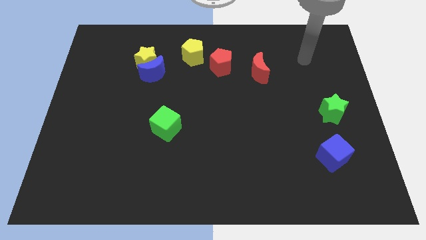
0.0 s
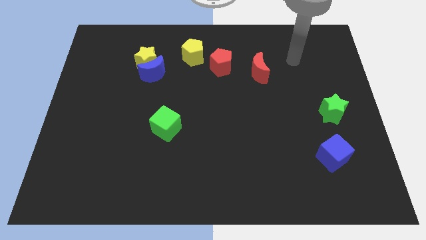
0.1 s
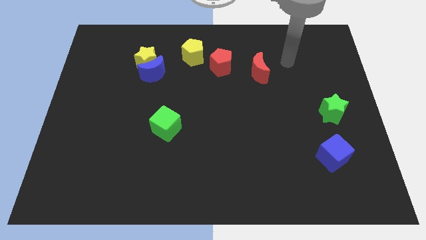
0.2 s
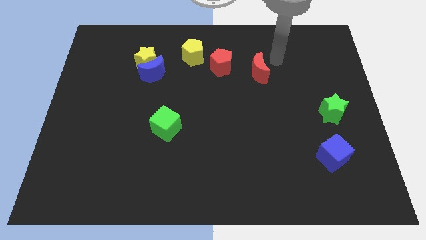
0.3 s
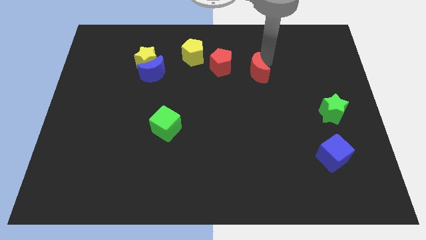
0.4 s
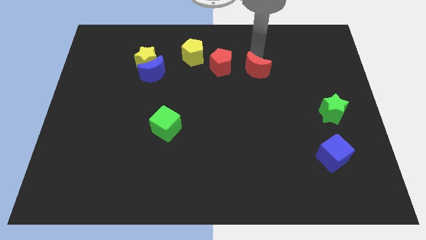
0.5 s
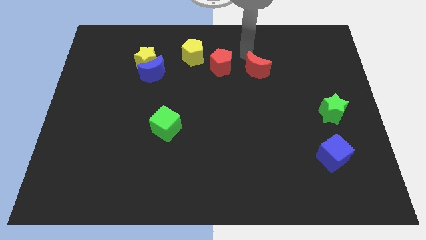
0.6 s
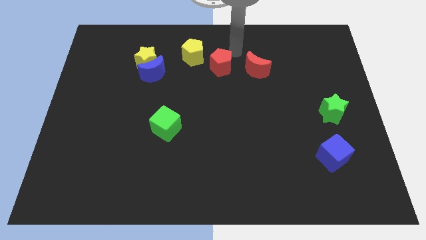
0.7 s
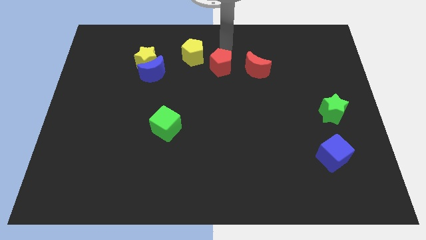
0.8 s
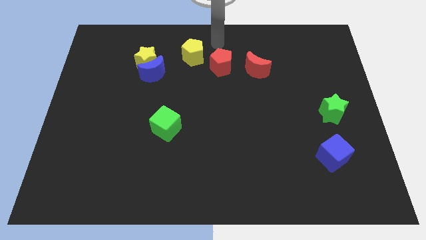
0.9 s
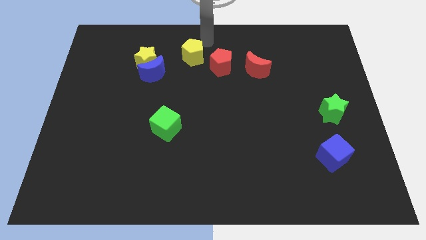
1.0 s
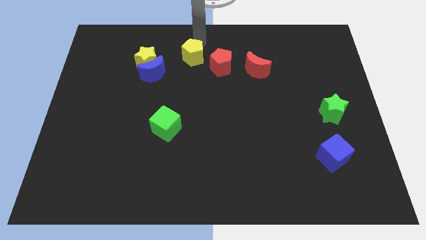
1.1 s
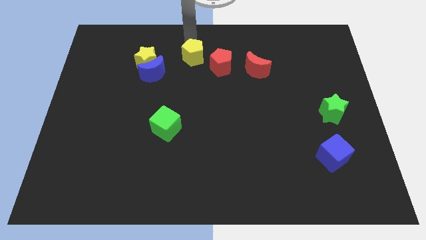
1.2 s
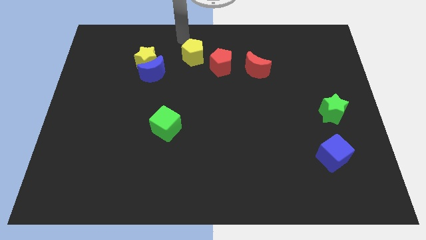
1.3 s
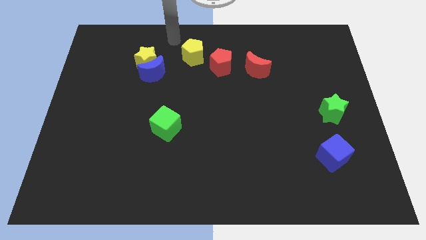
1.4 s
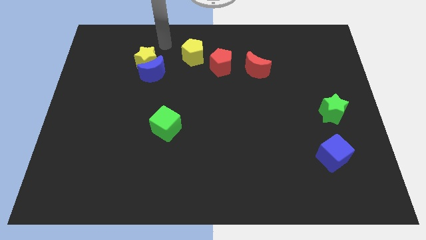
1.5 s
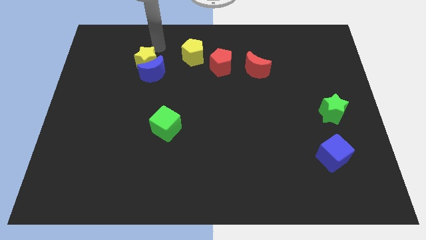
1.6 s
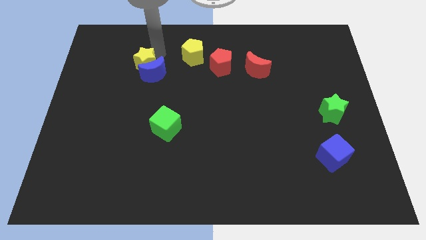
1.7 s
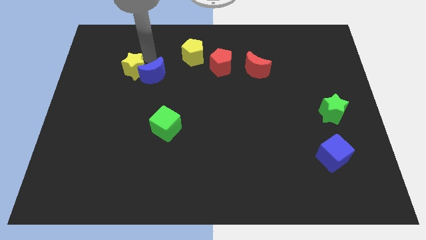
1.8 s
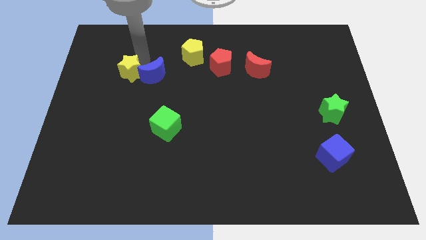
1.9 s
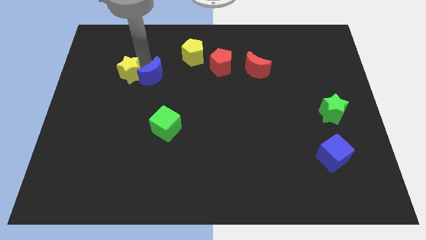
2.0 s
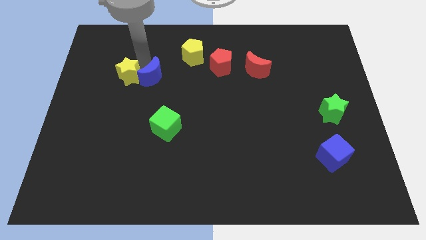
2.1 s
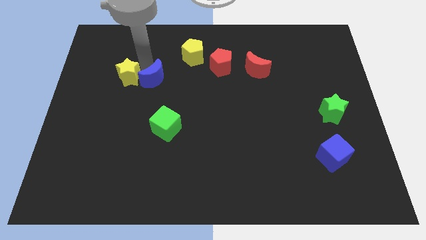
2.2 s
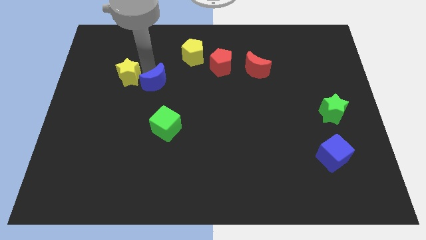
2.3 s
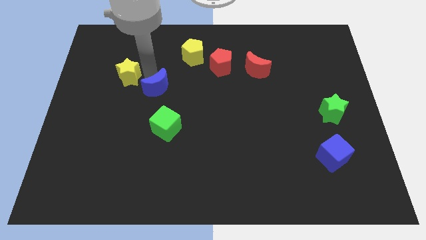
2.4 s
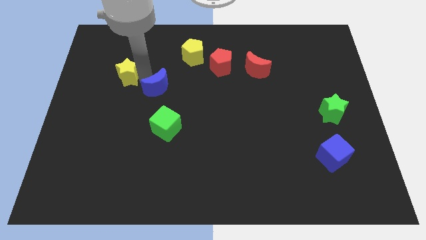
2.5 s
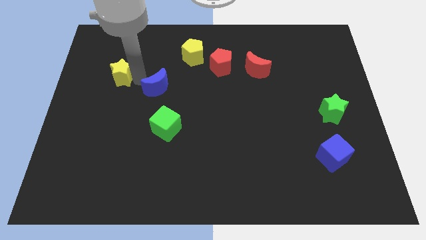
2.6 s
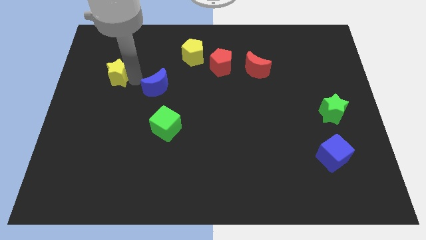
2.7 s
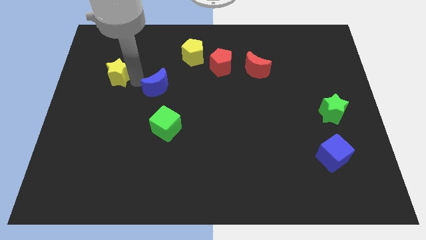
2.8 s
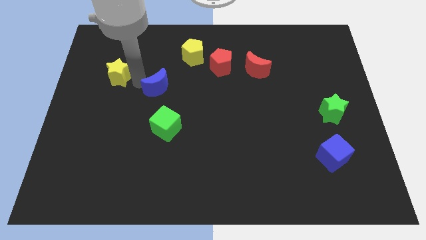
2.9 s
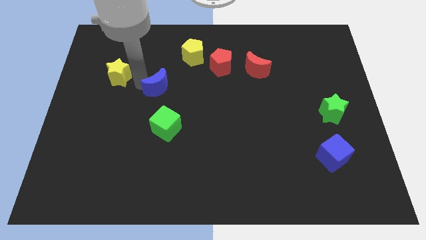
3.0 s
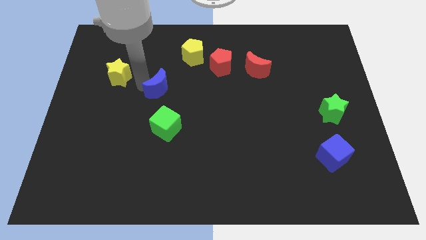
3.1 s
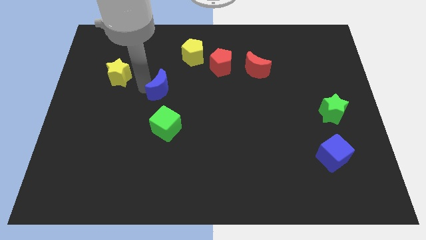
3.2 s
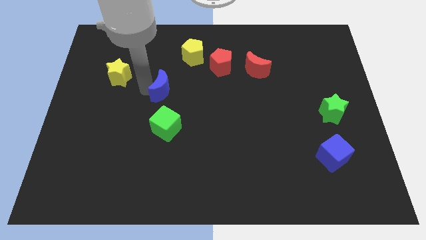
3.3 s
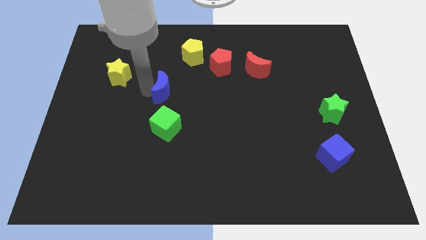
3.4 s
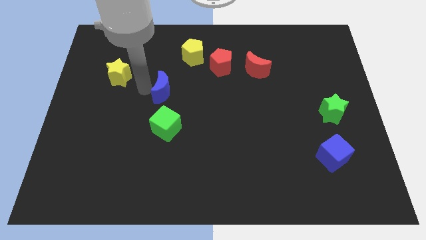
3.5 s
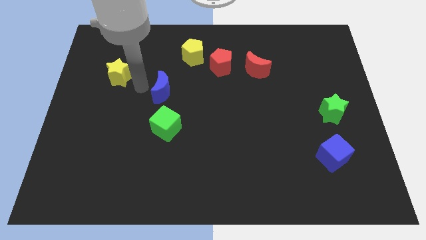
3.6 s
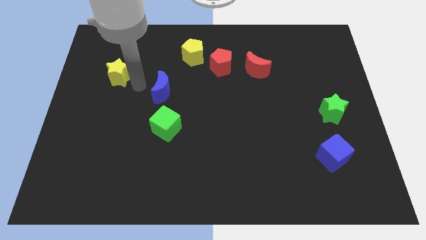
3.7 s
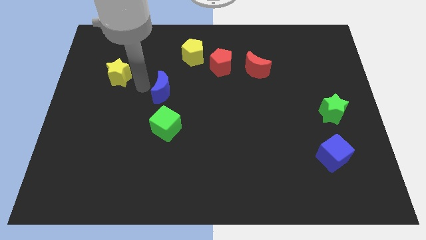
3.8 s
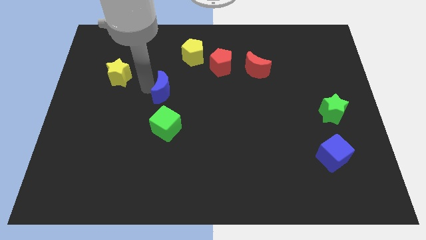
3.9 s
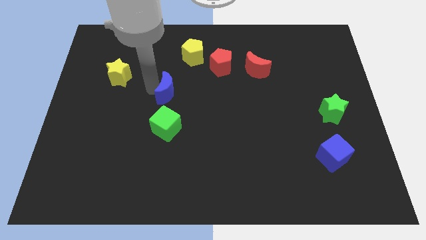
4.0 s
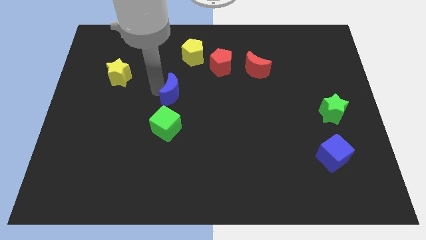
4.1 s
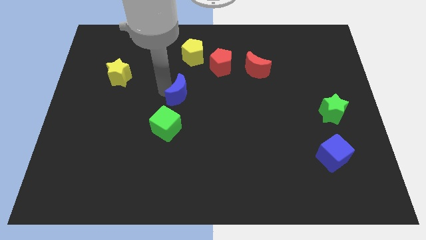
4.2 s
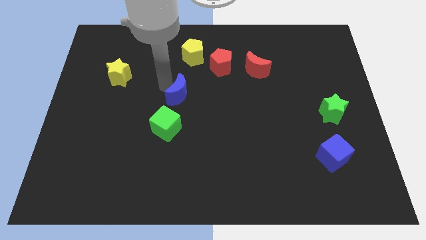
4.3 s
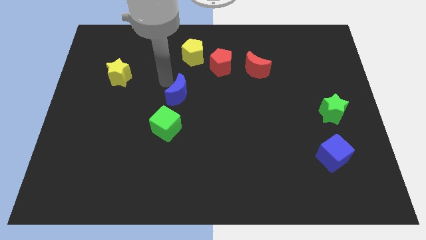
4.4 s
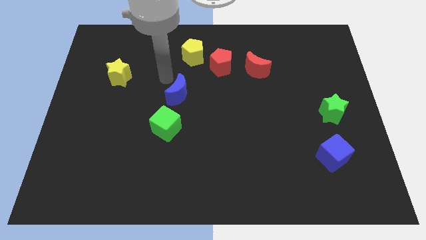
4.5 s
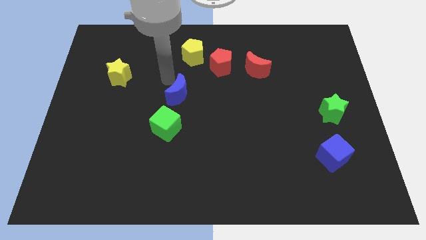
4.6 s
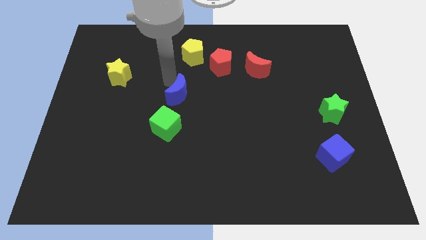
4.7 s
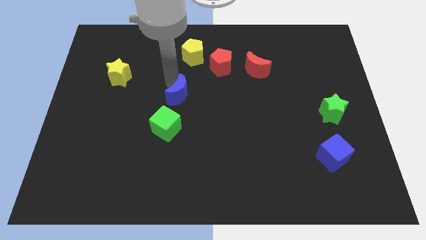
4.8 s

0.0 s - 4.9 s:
slide the blue moon to the top right side of the green cube

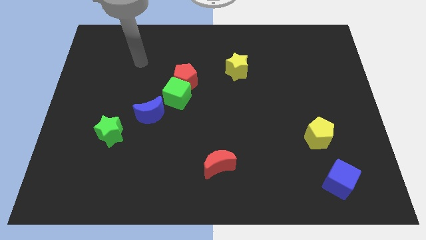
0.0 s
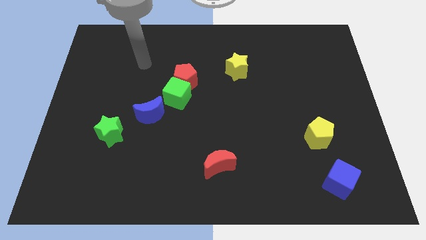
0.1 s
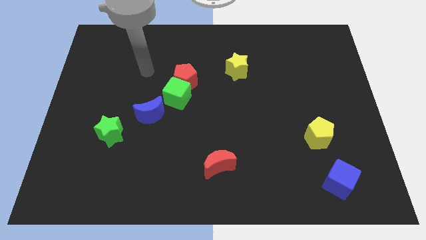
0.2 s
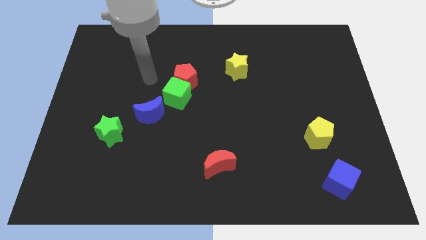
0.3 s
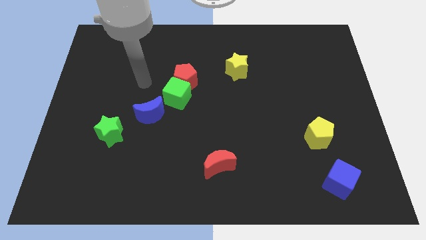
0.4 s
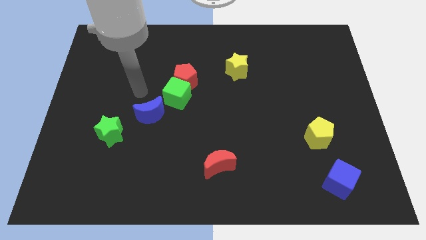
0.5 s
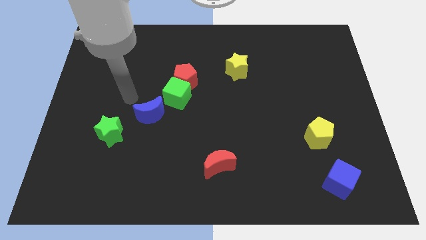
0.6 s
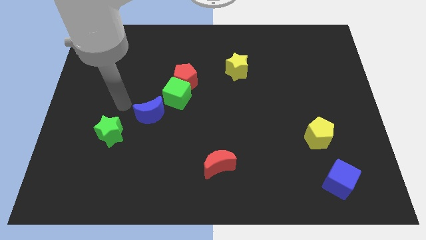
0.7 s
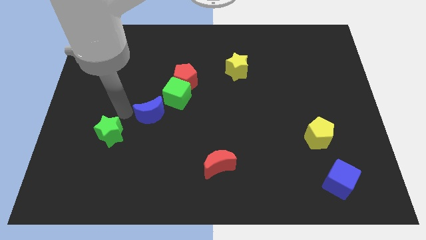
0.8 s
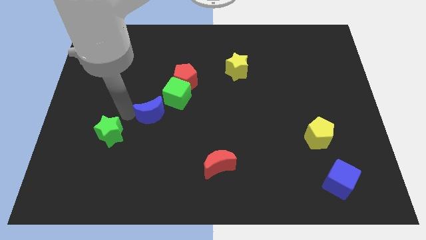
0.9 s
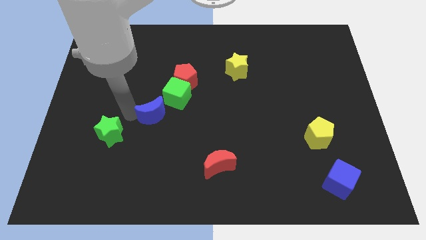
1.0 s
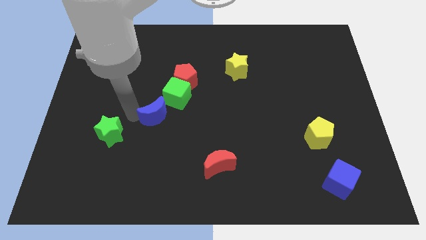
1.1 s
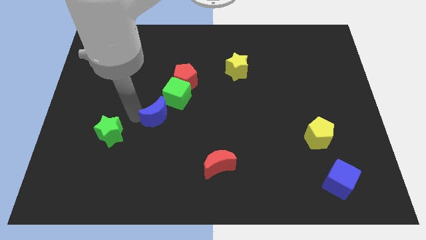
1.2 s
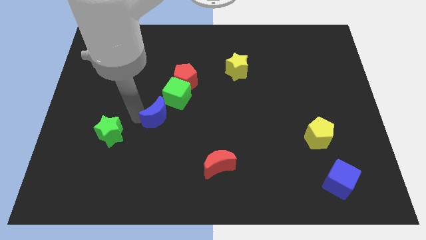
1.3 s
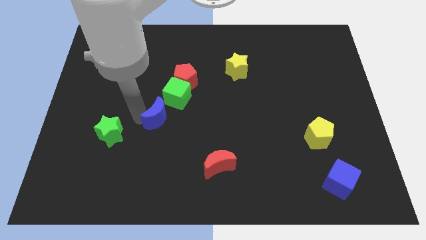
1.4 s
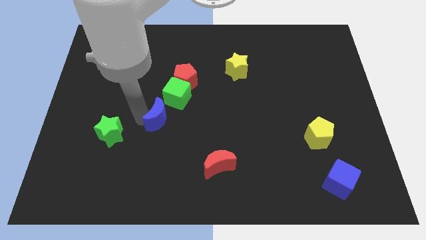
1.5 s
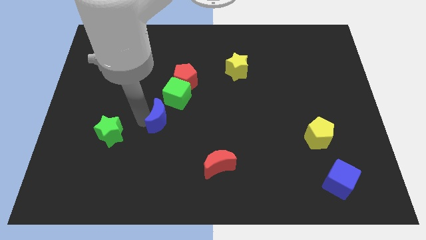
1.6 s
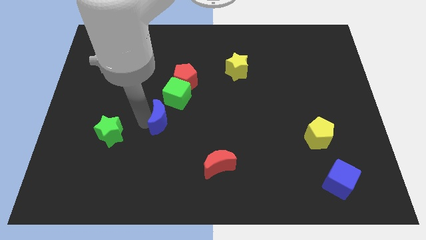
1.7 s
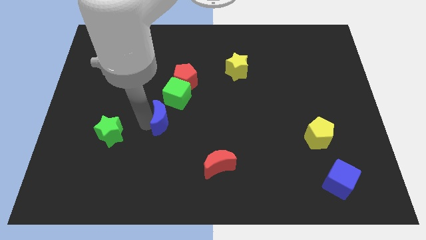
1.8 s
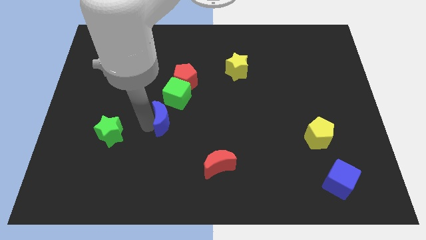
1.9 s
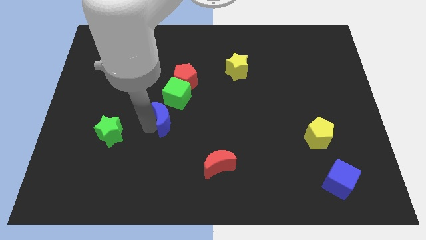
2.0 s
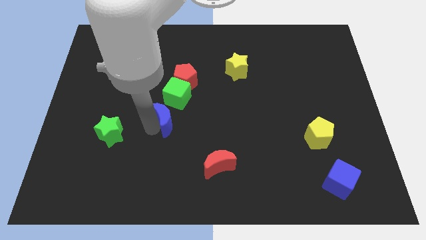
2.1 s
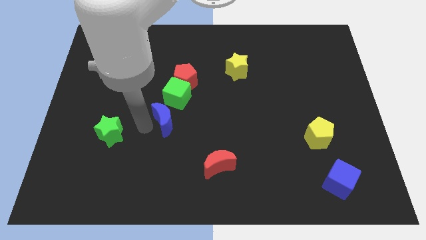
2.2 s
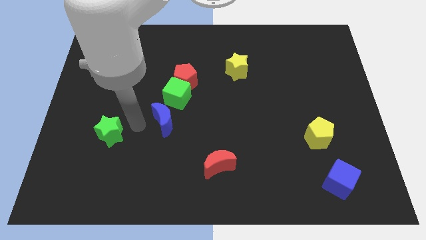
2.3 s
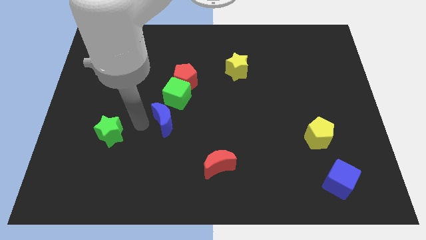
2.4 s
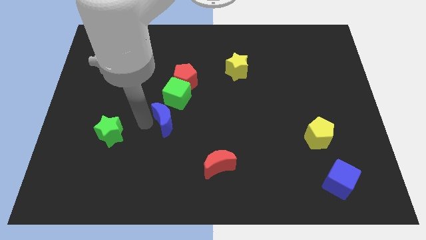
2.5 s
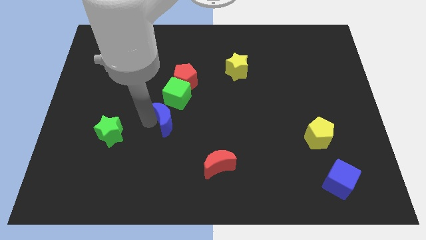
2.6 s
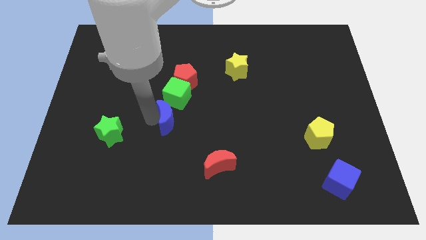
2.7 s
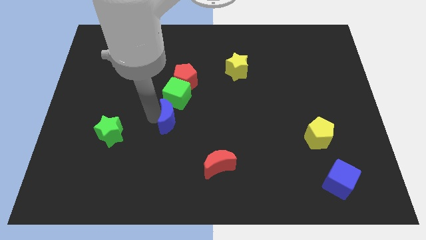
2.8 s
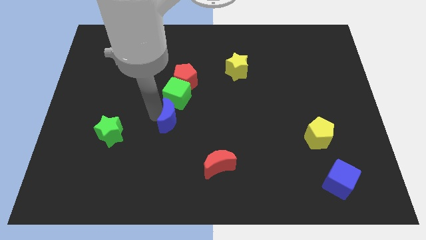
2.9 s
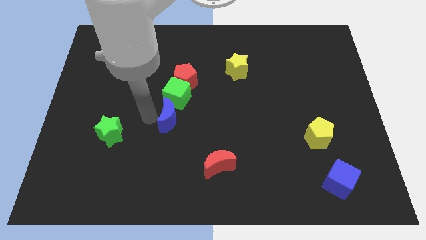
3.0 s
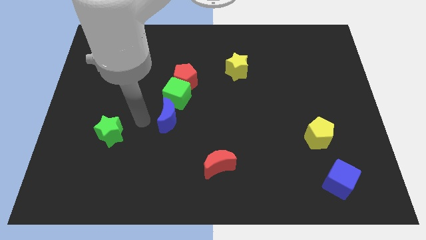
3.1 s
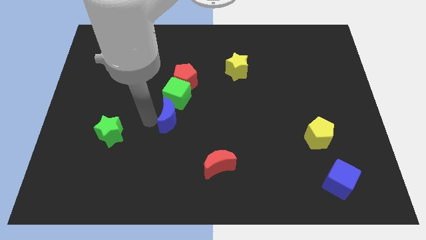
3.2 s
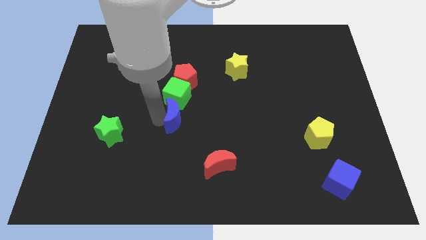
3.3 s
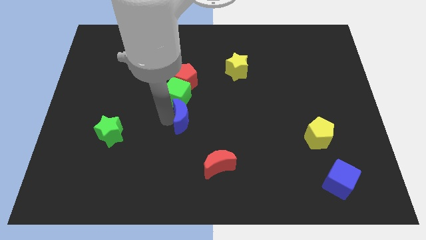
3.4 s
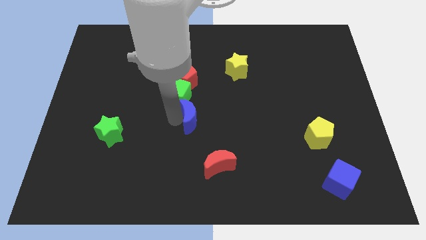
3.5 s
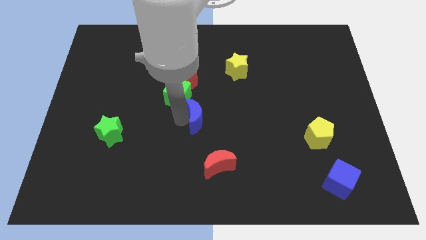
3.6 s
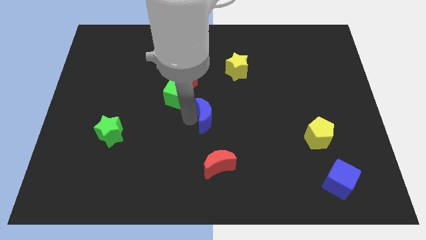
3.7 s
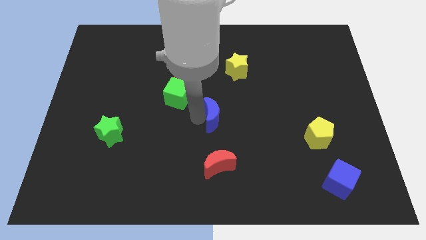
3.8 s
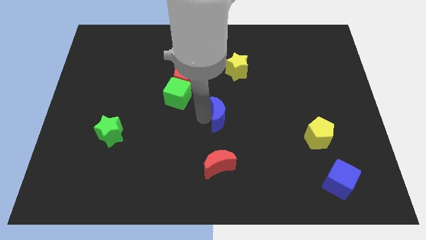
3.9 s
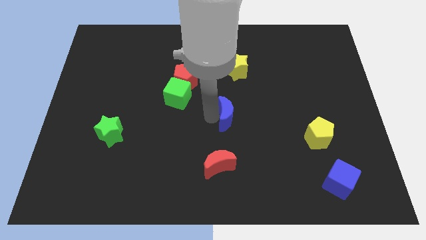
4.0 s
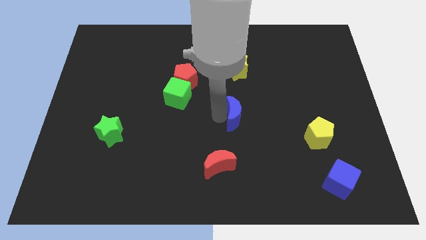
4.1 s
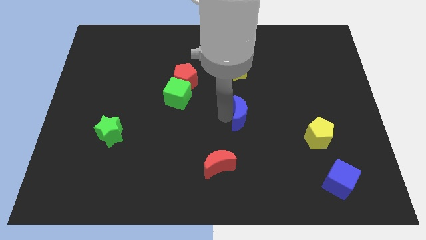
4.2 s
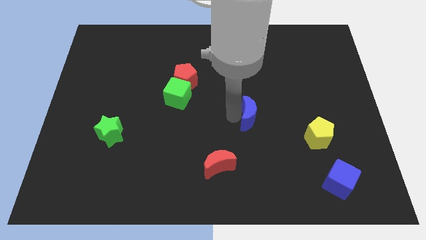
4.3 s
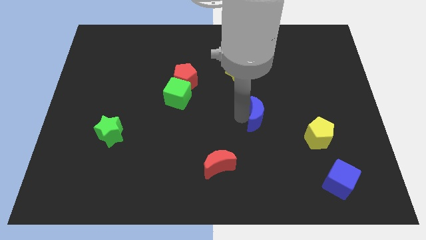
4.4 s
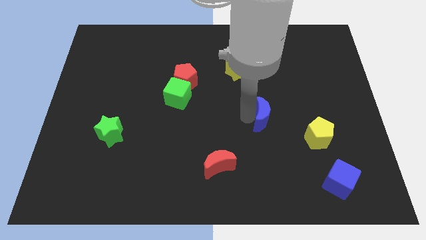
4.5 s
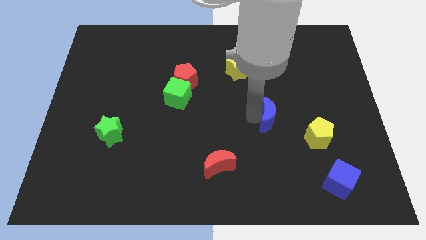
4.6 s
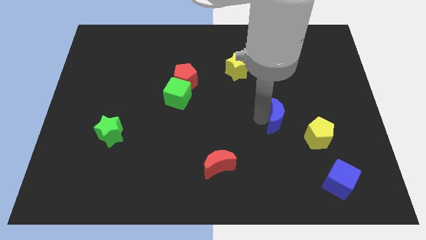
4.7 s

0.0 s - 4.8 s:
push the blue moon diagonally up and to the left of the yellow pentagon
